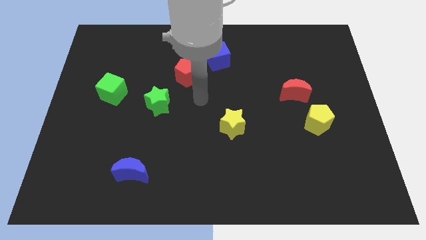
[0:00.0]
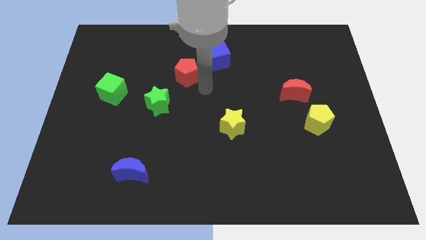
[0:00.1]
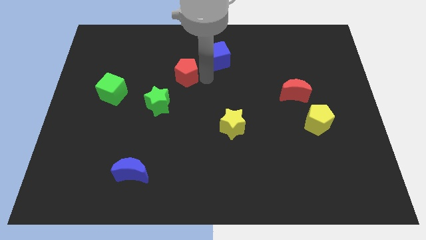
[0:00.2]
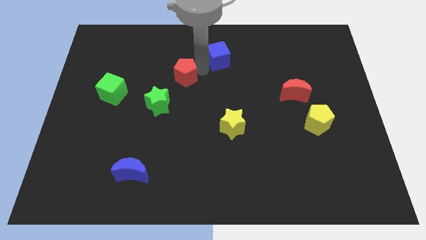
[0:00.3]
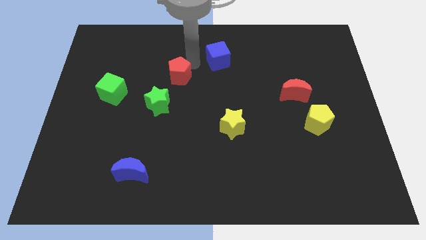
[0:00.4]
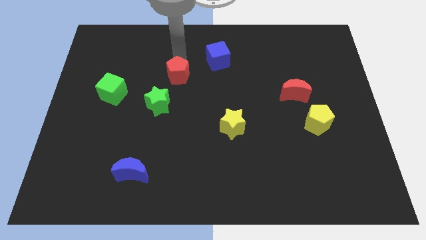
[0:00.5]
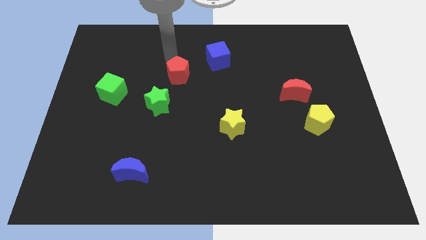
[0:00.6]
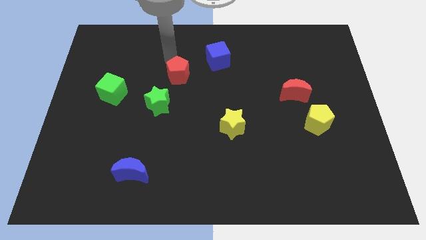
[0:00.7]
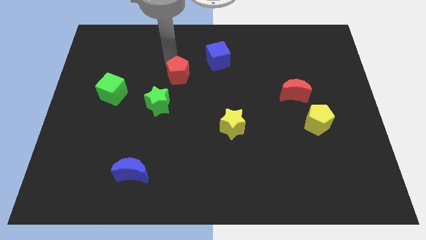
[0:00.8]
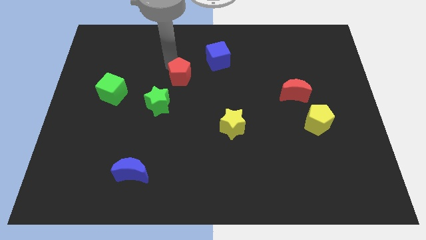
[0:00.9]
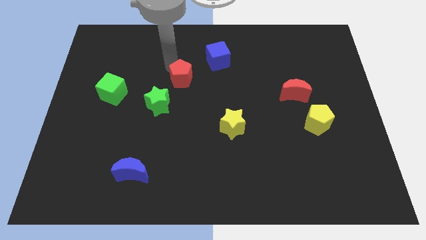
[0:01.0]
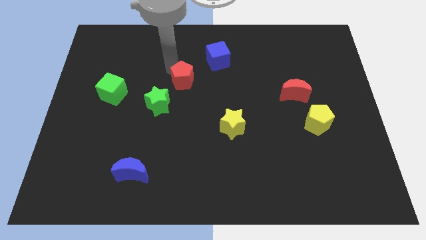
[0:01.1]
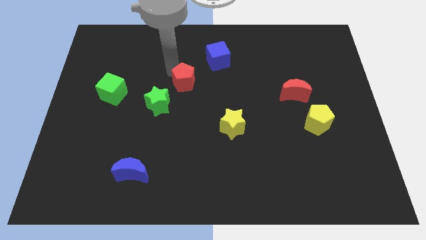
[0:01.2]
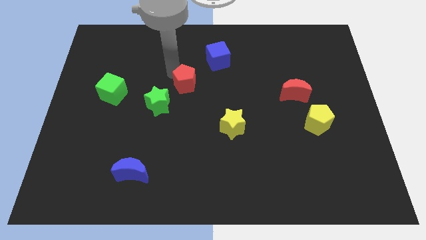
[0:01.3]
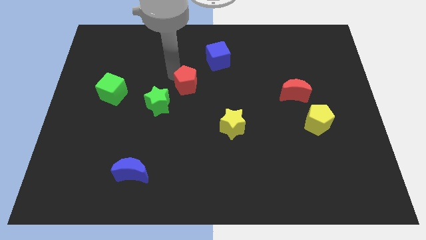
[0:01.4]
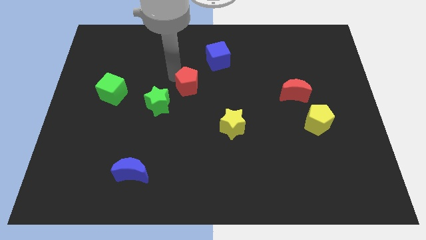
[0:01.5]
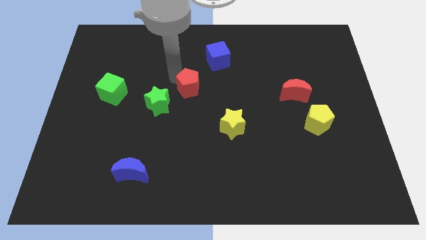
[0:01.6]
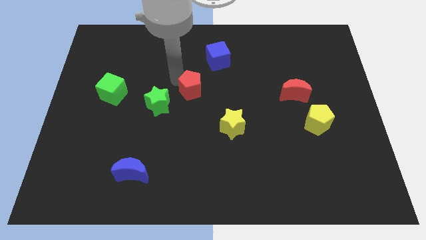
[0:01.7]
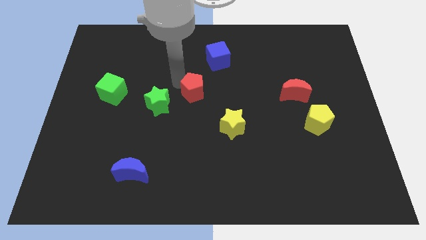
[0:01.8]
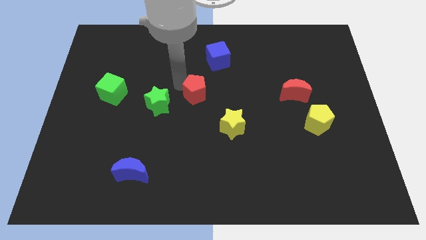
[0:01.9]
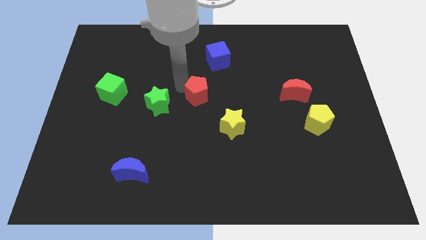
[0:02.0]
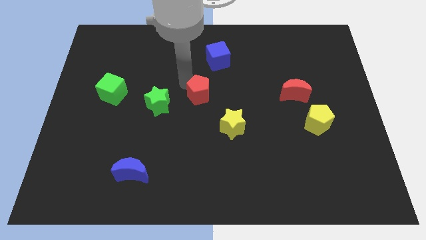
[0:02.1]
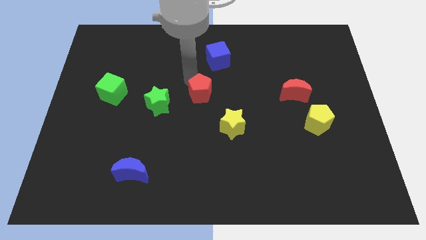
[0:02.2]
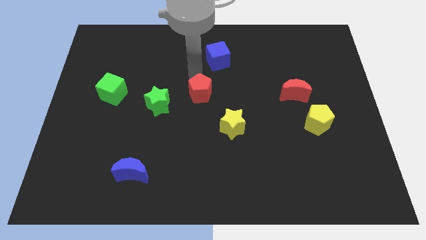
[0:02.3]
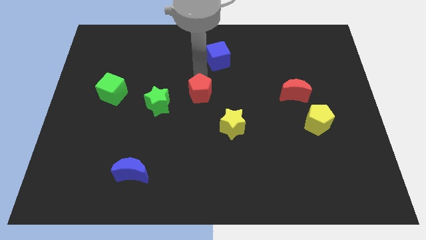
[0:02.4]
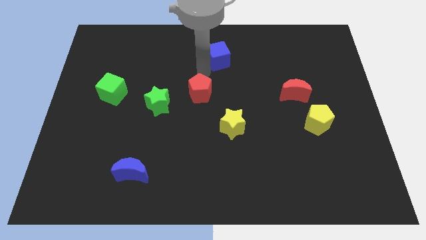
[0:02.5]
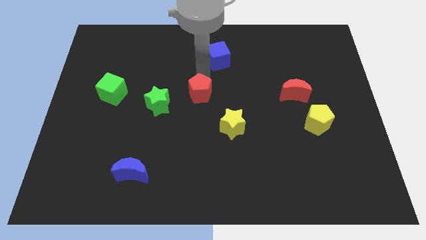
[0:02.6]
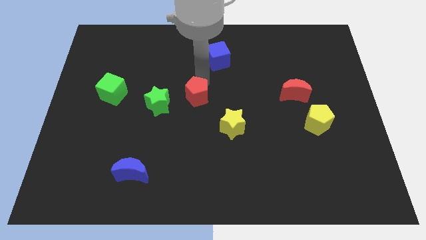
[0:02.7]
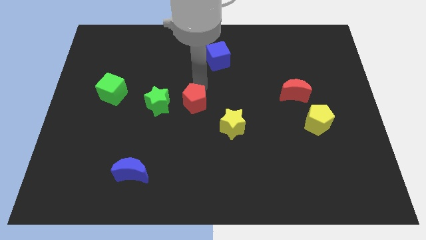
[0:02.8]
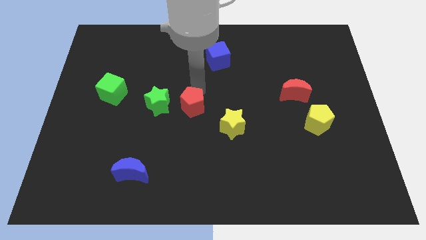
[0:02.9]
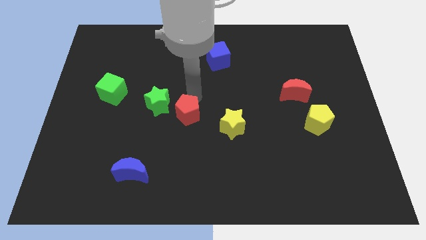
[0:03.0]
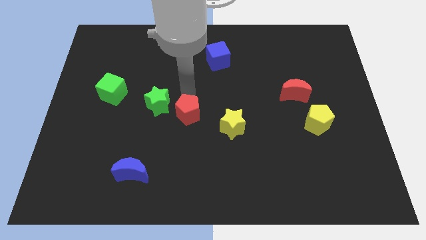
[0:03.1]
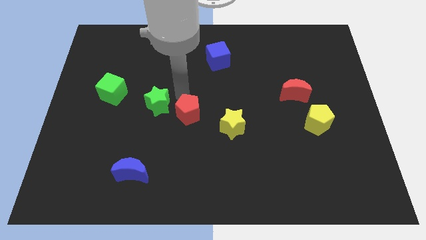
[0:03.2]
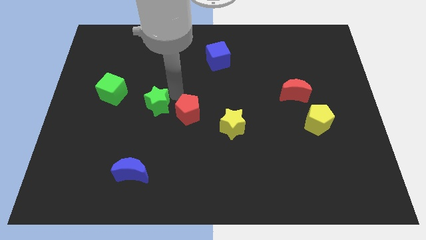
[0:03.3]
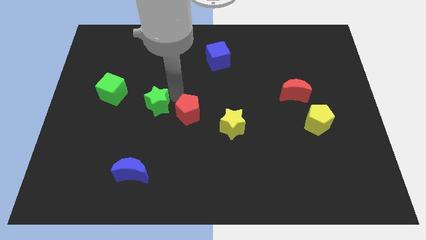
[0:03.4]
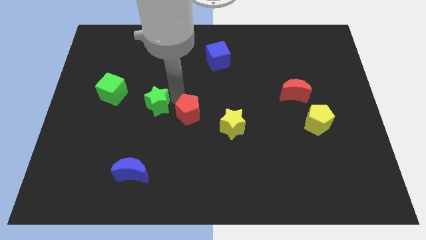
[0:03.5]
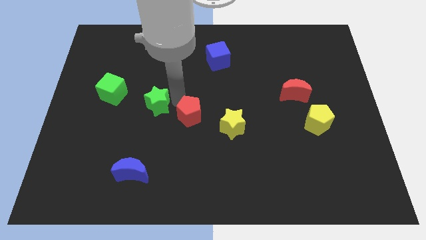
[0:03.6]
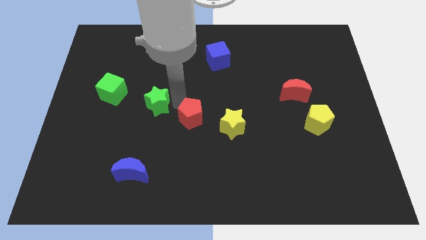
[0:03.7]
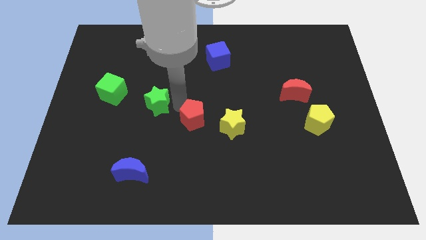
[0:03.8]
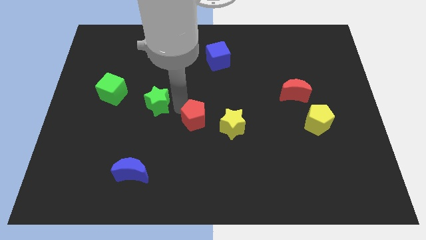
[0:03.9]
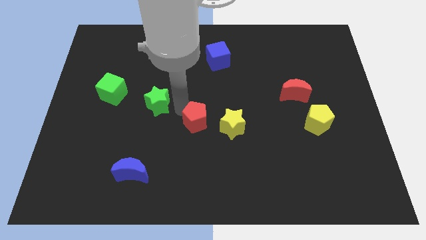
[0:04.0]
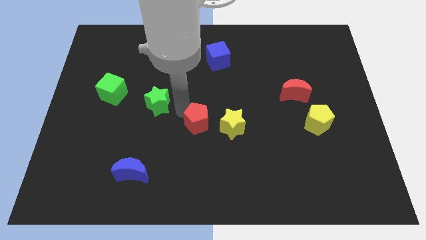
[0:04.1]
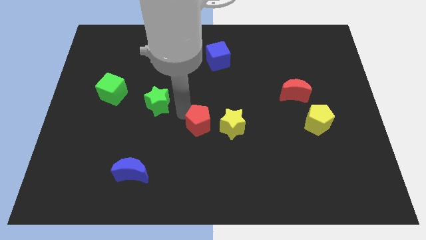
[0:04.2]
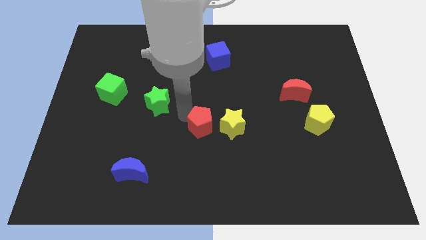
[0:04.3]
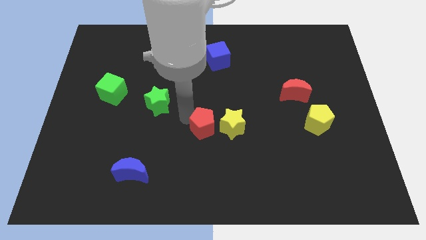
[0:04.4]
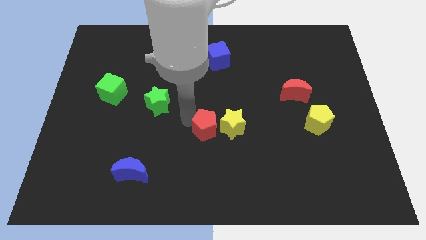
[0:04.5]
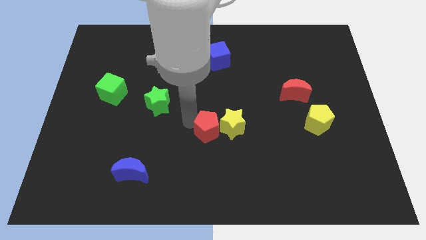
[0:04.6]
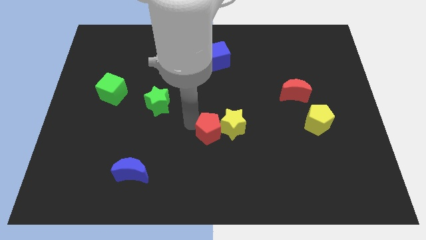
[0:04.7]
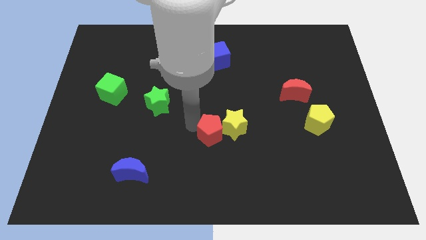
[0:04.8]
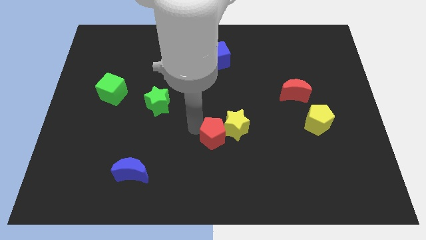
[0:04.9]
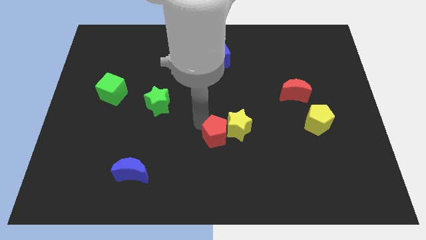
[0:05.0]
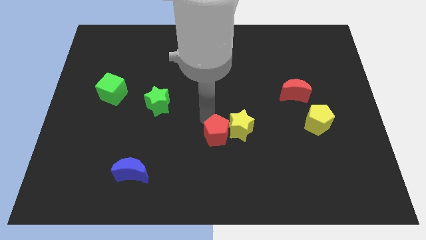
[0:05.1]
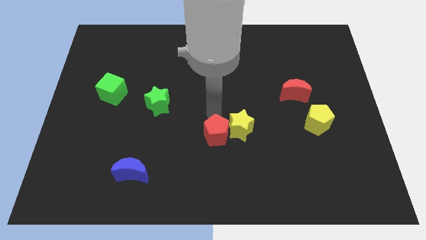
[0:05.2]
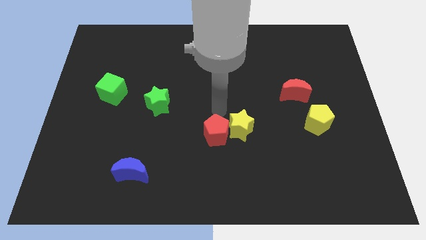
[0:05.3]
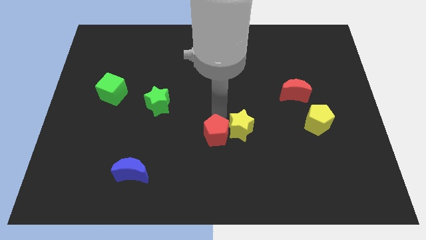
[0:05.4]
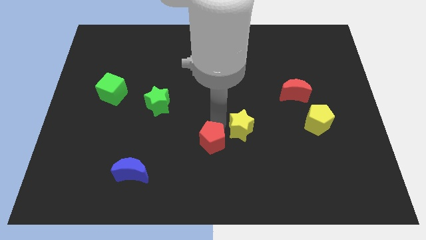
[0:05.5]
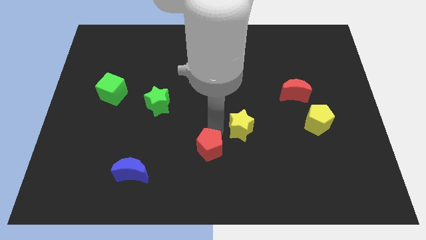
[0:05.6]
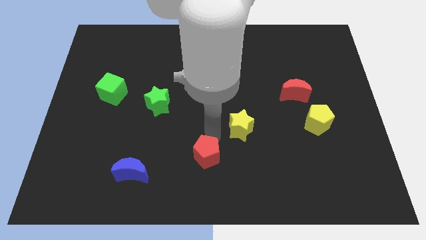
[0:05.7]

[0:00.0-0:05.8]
put the red pentagon to the bottom

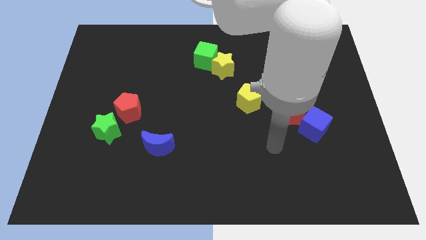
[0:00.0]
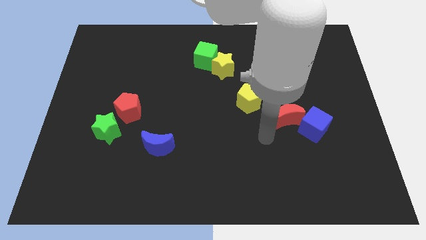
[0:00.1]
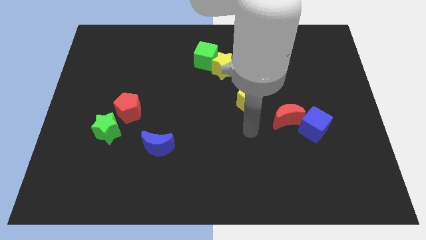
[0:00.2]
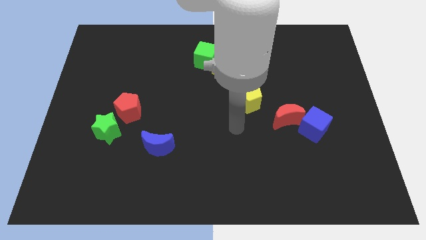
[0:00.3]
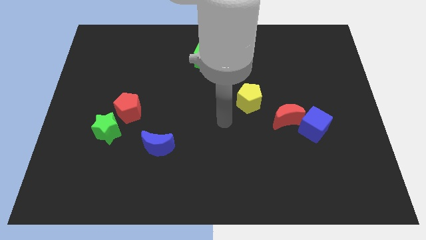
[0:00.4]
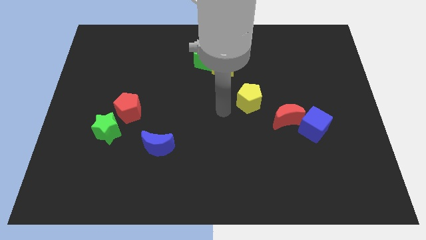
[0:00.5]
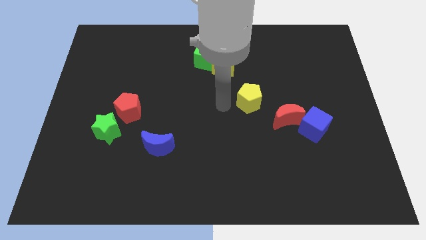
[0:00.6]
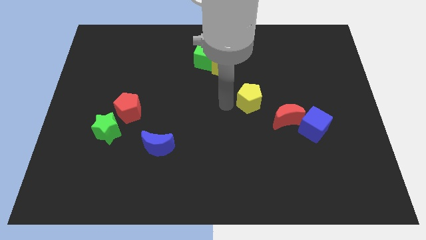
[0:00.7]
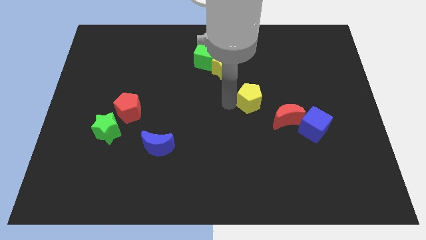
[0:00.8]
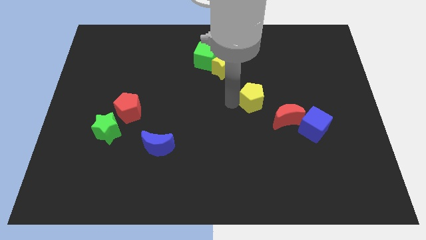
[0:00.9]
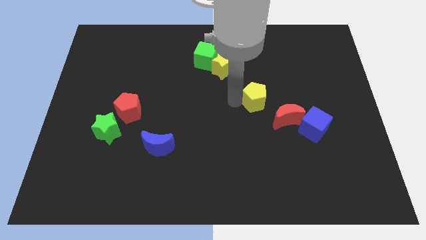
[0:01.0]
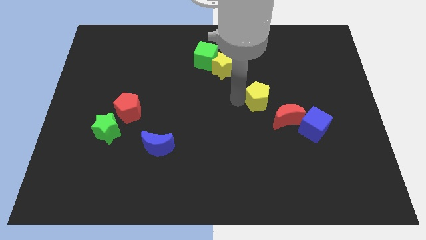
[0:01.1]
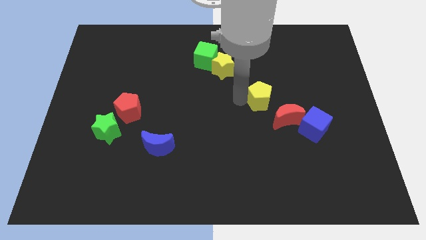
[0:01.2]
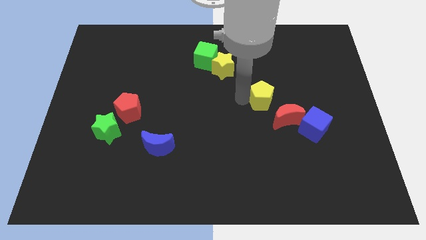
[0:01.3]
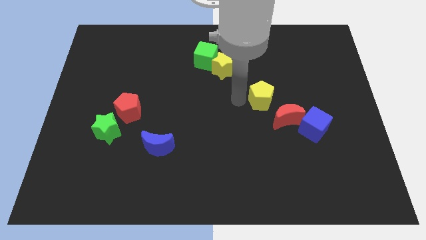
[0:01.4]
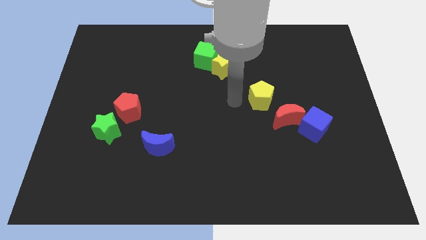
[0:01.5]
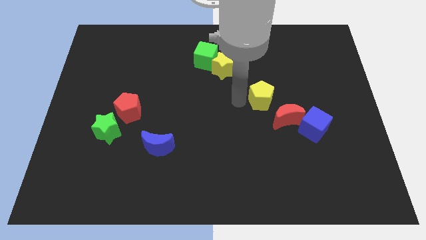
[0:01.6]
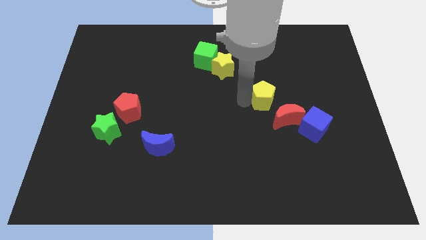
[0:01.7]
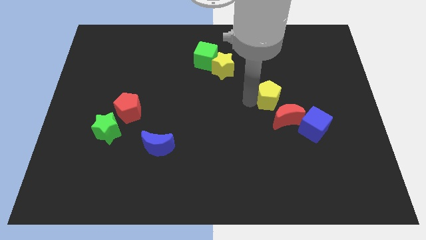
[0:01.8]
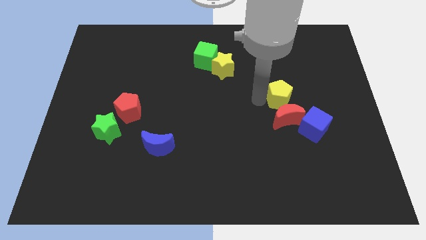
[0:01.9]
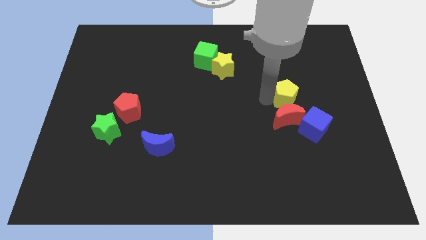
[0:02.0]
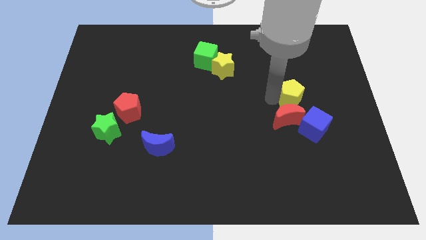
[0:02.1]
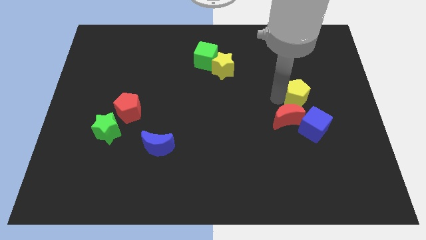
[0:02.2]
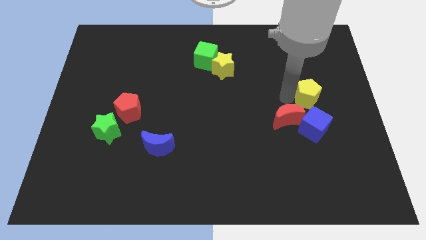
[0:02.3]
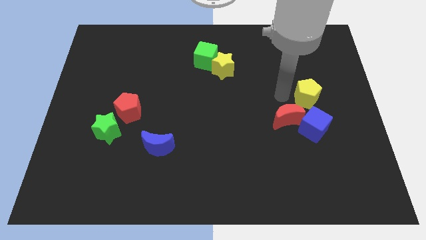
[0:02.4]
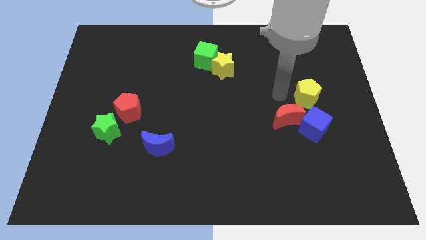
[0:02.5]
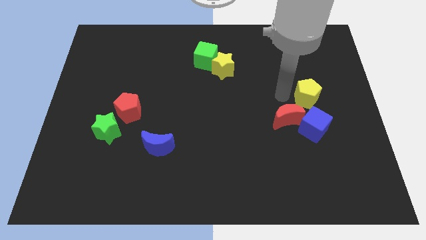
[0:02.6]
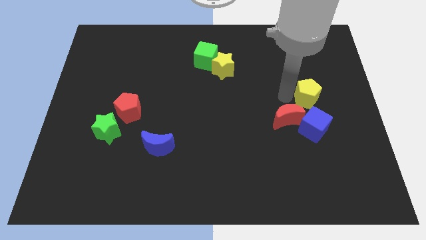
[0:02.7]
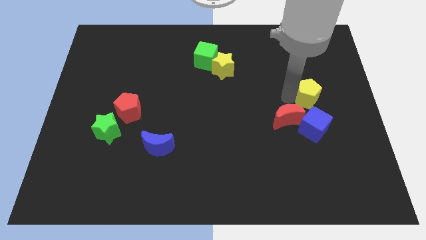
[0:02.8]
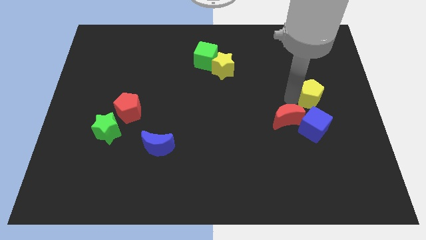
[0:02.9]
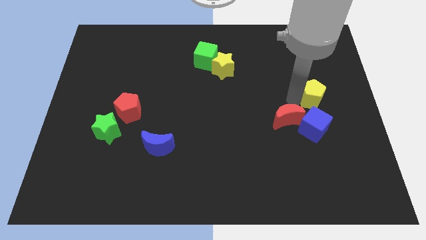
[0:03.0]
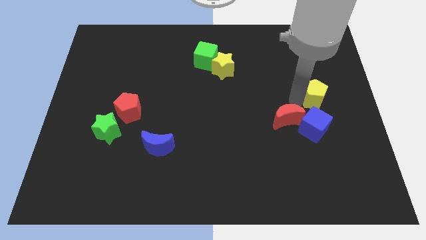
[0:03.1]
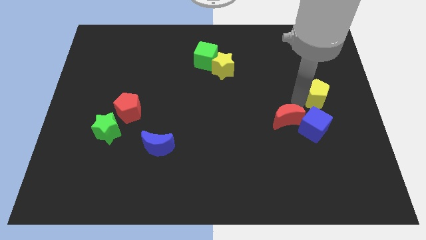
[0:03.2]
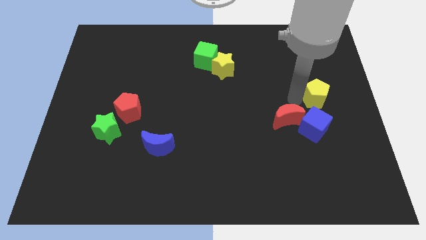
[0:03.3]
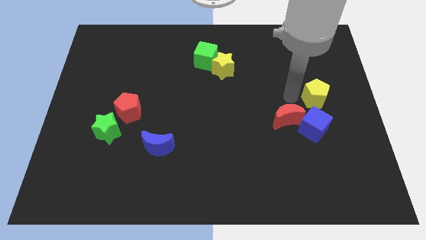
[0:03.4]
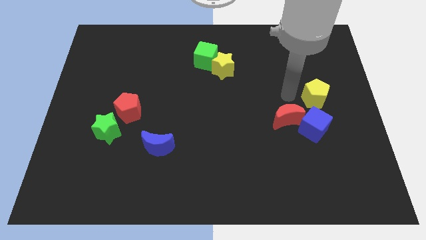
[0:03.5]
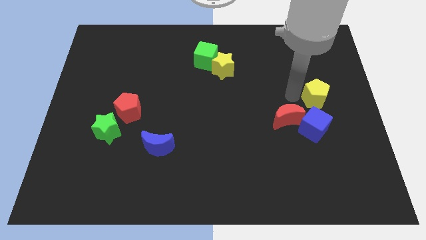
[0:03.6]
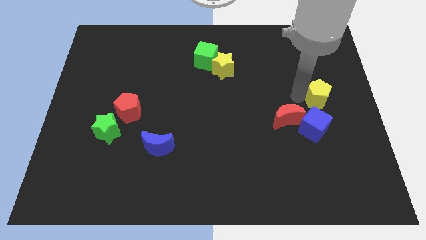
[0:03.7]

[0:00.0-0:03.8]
put the yellow pentagon to the right side of the board
